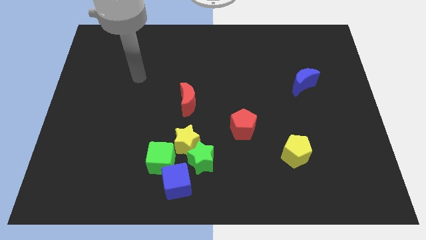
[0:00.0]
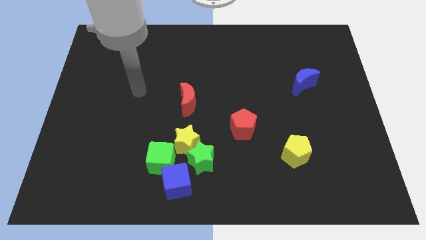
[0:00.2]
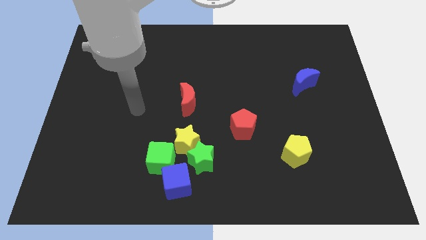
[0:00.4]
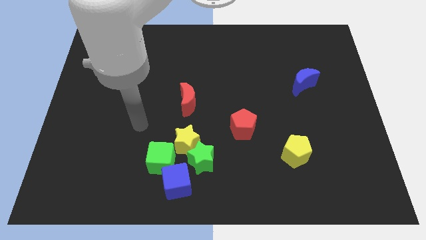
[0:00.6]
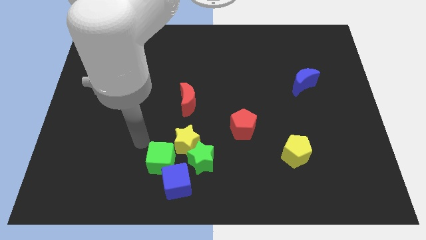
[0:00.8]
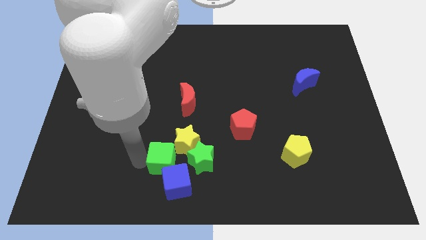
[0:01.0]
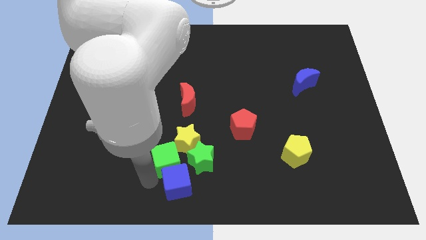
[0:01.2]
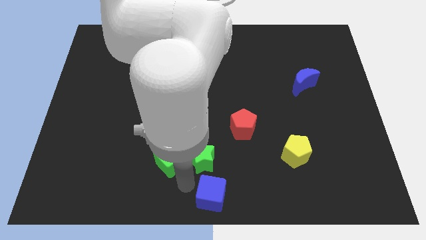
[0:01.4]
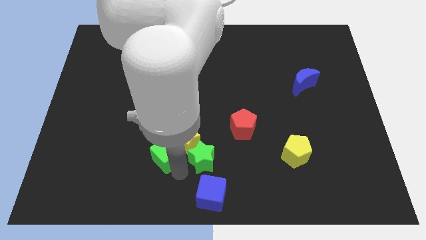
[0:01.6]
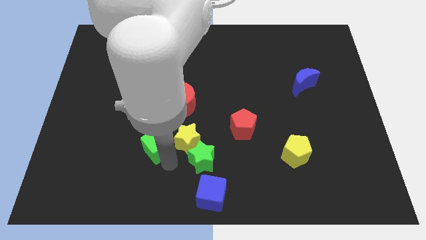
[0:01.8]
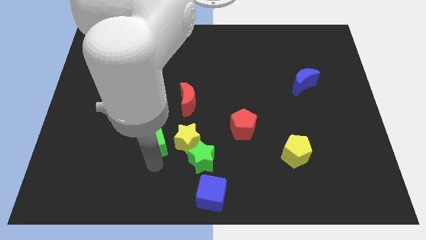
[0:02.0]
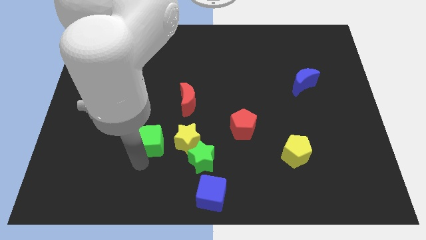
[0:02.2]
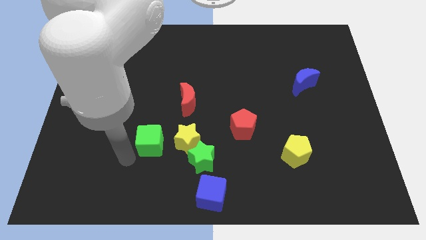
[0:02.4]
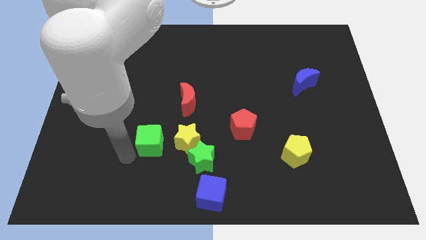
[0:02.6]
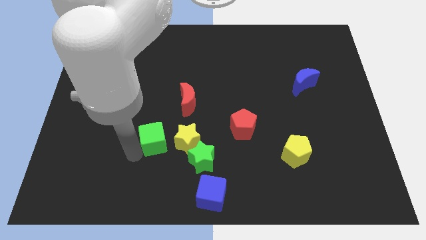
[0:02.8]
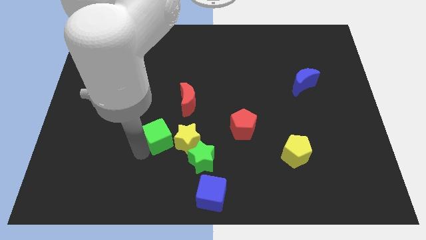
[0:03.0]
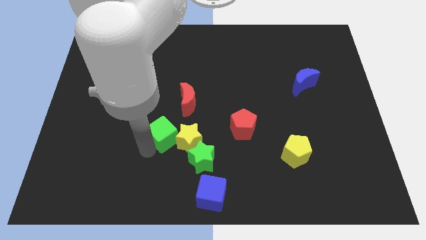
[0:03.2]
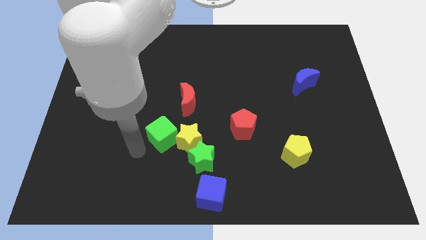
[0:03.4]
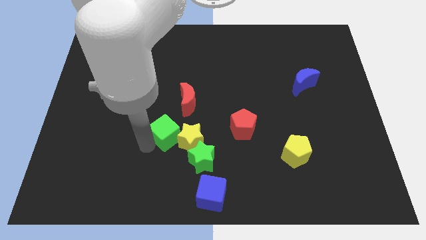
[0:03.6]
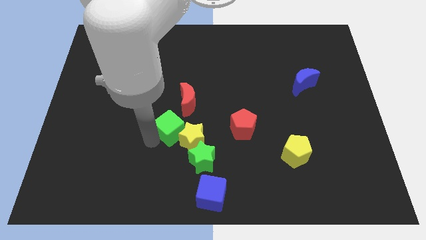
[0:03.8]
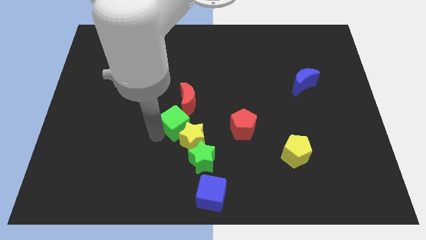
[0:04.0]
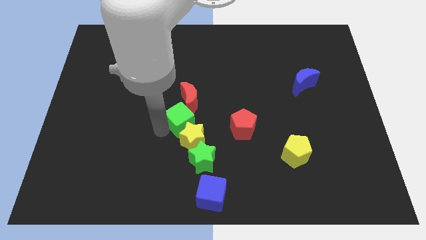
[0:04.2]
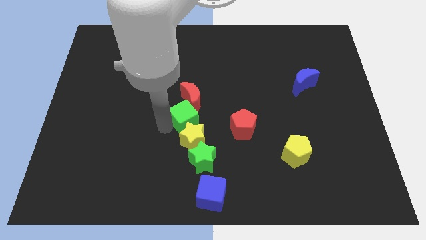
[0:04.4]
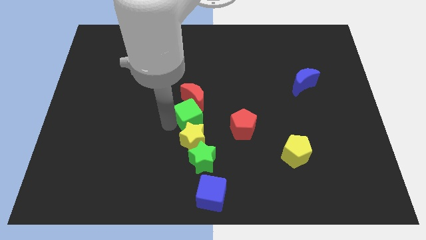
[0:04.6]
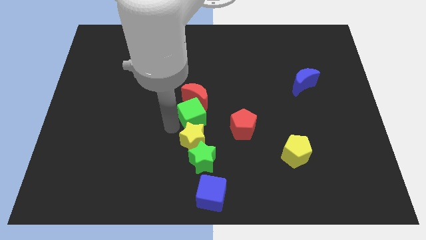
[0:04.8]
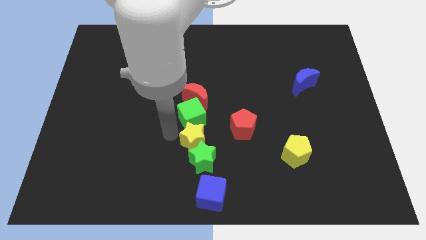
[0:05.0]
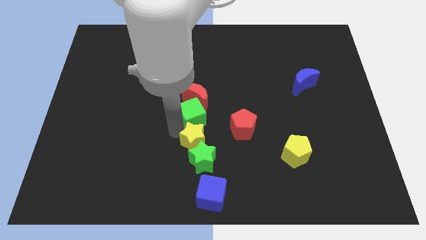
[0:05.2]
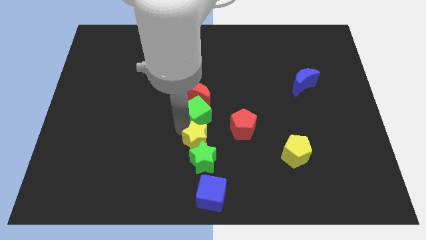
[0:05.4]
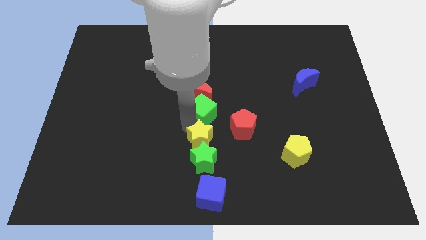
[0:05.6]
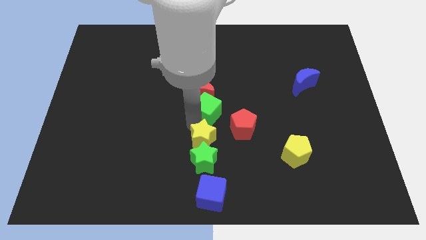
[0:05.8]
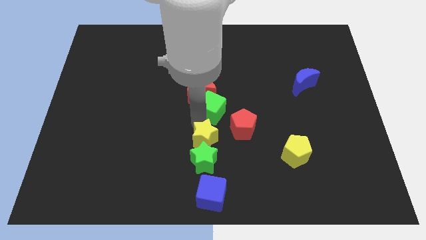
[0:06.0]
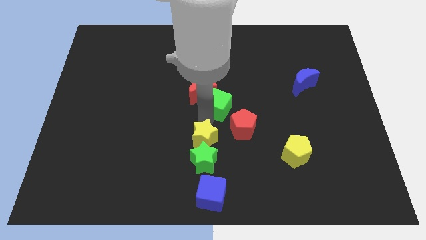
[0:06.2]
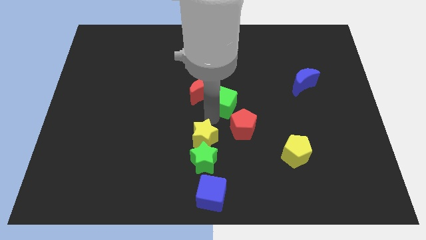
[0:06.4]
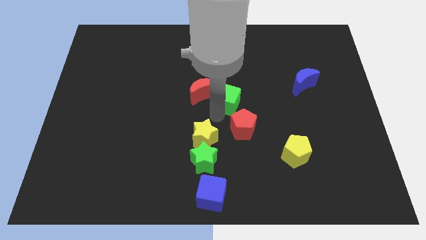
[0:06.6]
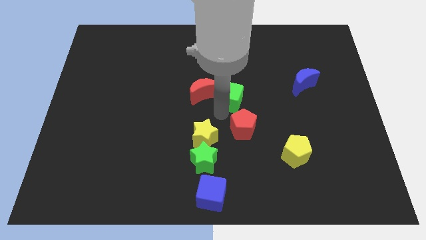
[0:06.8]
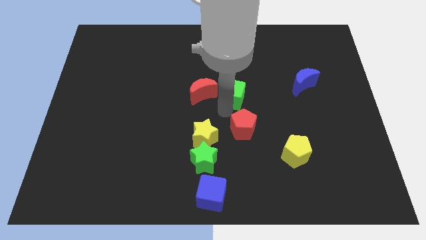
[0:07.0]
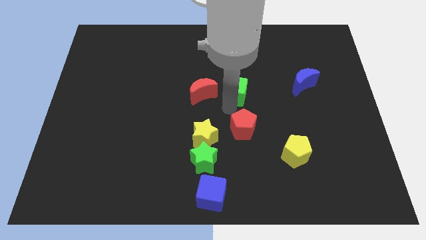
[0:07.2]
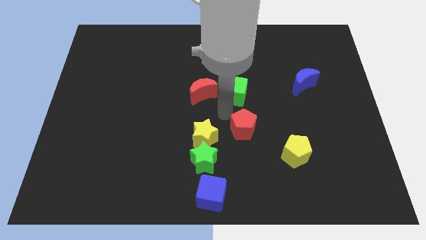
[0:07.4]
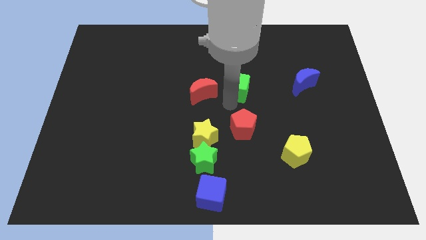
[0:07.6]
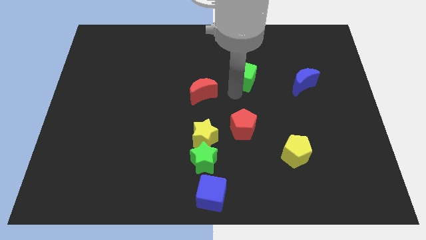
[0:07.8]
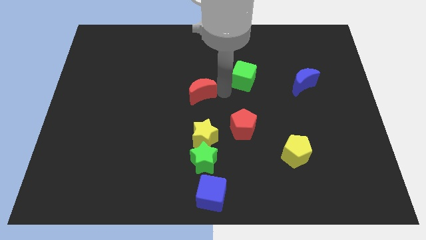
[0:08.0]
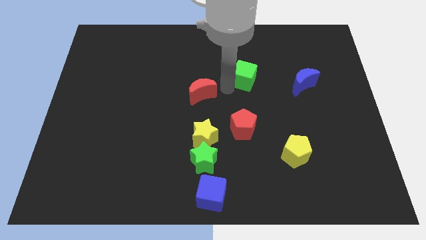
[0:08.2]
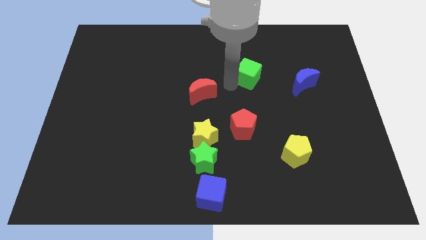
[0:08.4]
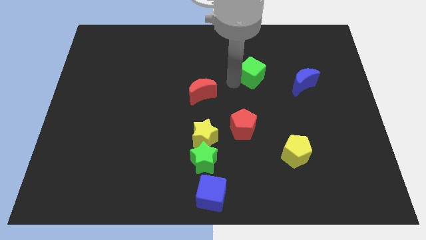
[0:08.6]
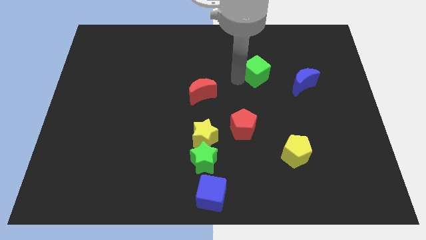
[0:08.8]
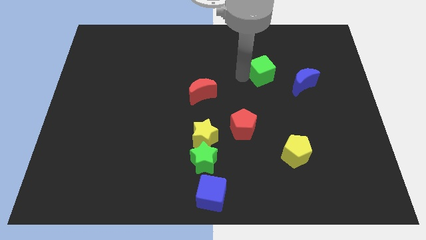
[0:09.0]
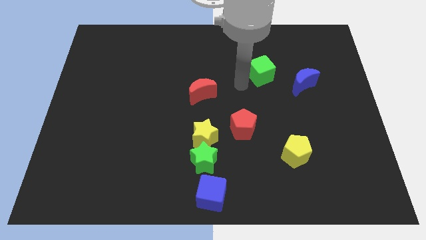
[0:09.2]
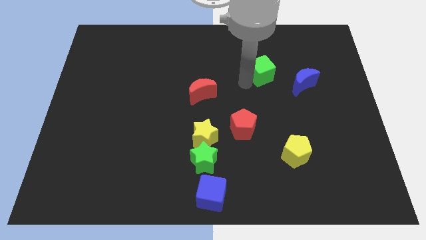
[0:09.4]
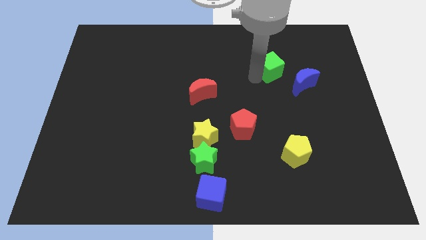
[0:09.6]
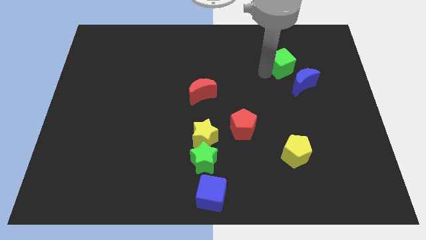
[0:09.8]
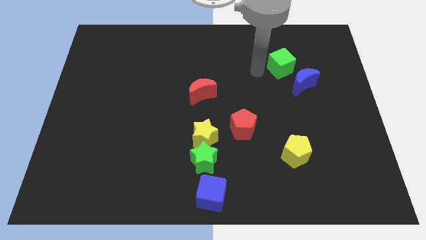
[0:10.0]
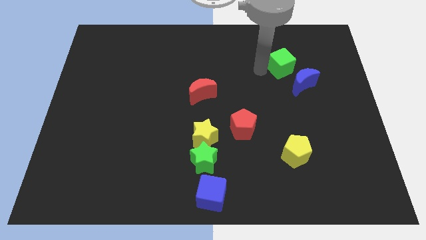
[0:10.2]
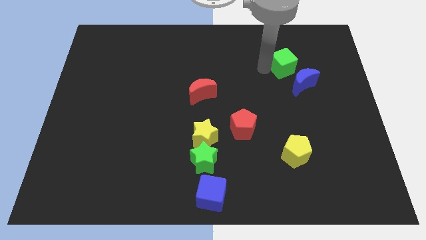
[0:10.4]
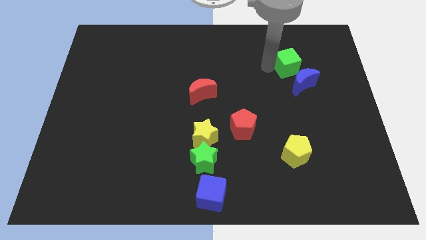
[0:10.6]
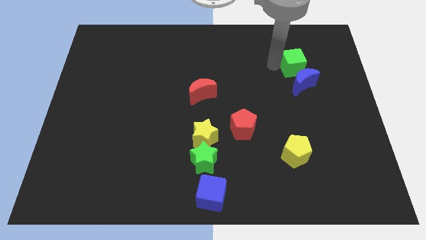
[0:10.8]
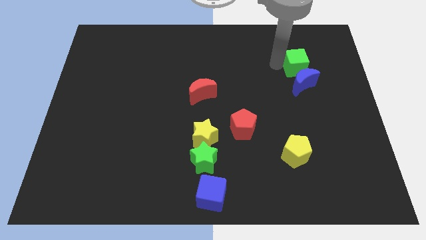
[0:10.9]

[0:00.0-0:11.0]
push the green cube diagonally up and to the right of the blue moon

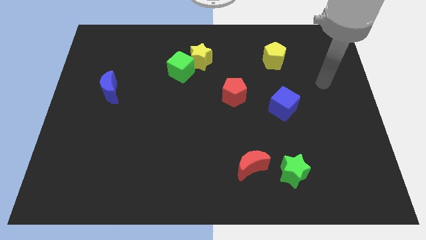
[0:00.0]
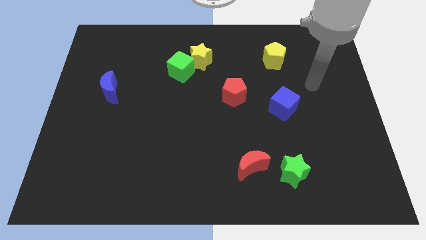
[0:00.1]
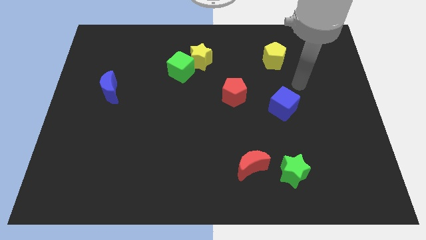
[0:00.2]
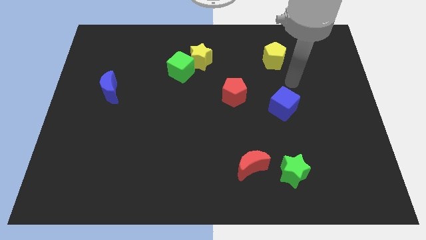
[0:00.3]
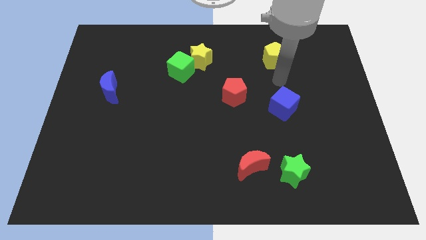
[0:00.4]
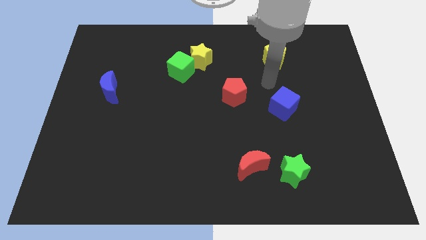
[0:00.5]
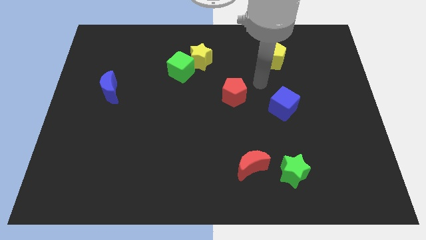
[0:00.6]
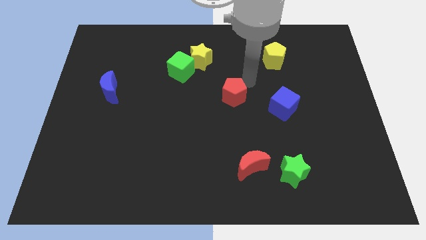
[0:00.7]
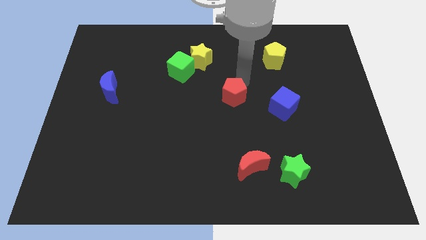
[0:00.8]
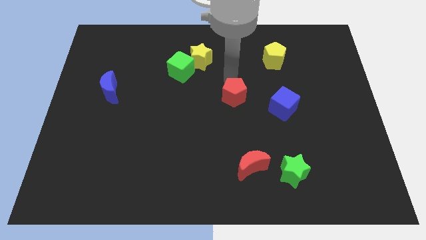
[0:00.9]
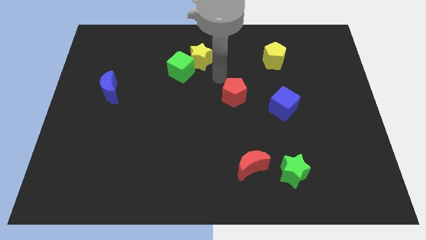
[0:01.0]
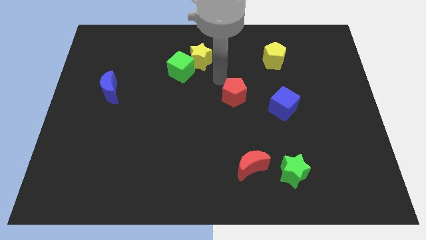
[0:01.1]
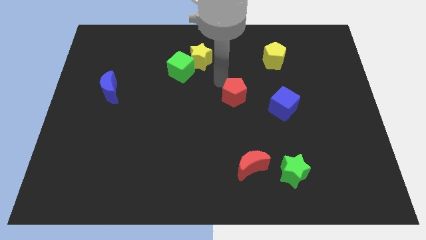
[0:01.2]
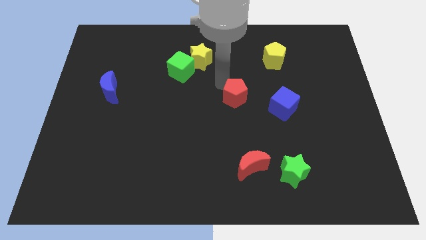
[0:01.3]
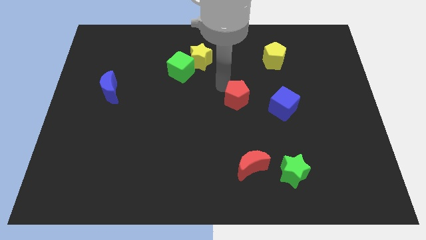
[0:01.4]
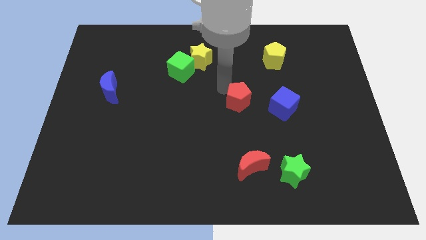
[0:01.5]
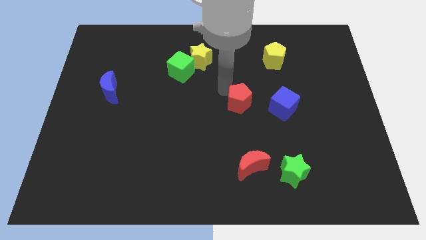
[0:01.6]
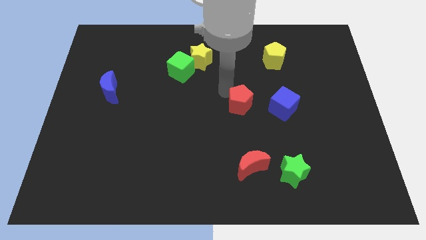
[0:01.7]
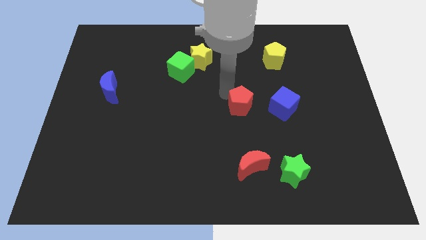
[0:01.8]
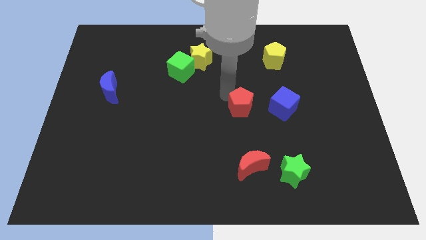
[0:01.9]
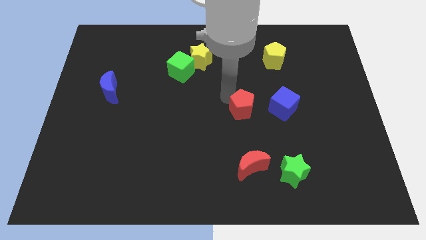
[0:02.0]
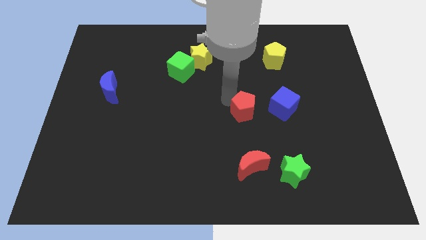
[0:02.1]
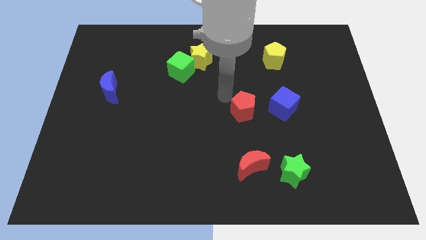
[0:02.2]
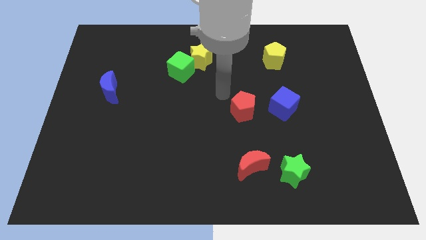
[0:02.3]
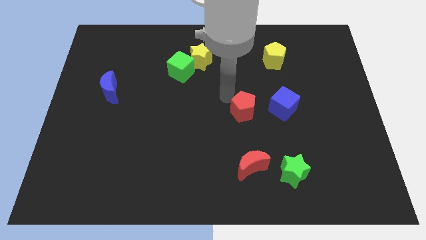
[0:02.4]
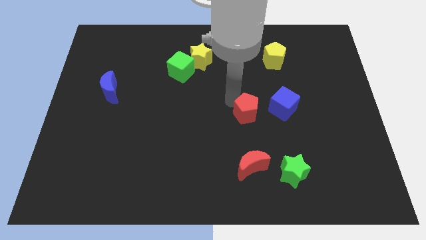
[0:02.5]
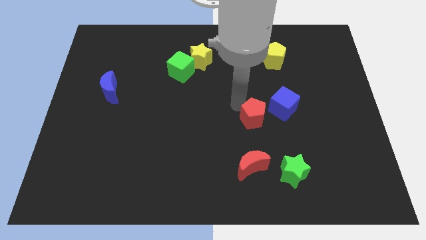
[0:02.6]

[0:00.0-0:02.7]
push the red pentagon to the bottom left side of the blue cube
